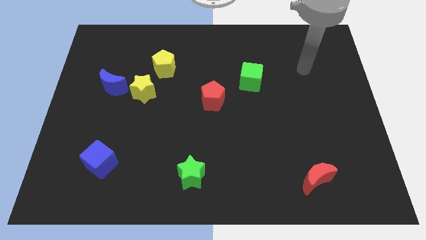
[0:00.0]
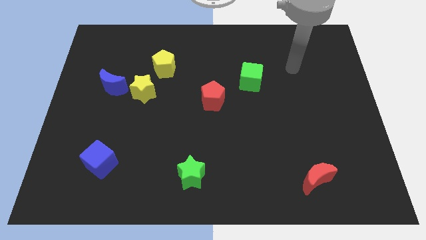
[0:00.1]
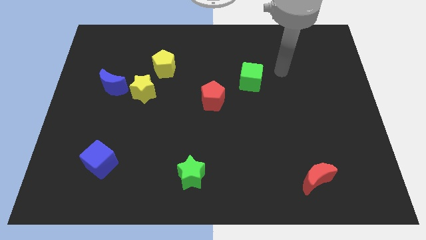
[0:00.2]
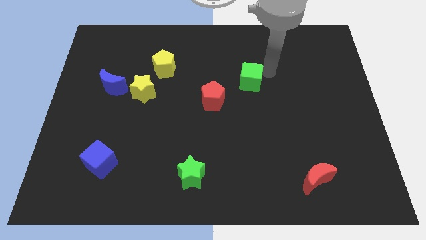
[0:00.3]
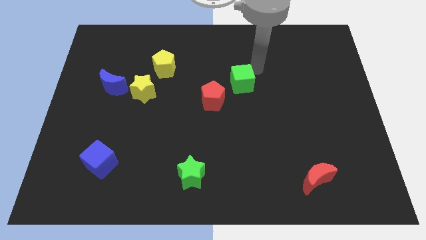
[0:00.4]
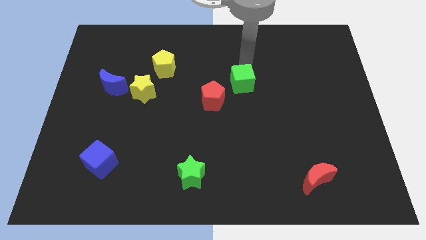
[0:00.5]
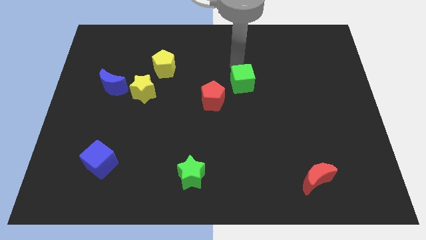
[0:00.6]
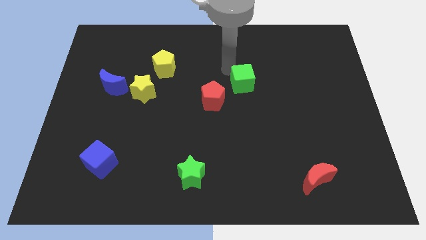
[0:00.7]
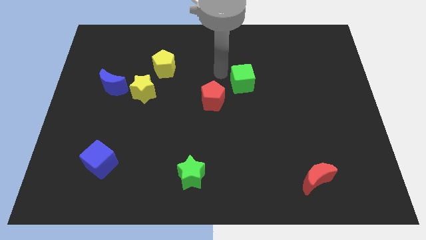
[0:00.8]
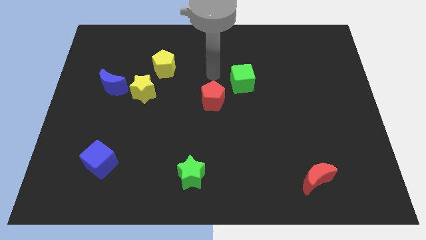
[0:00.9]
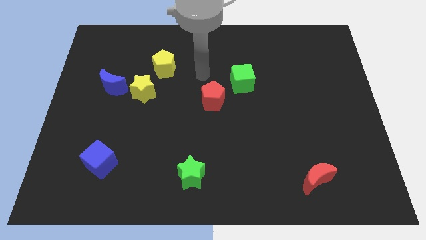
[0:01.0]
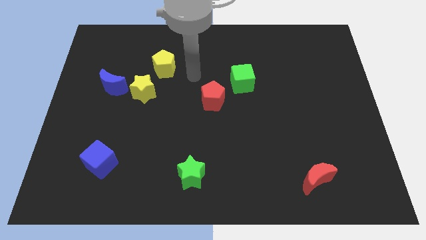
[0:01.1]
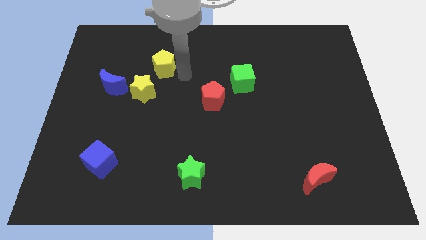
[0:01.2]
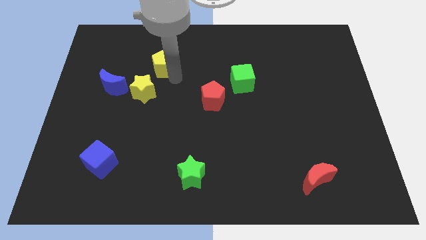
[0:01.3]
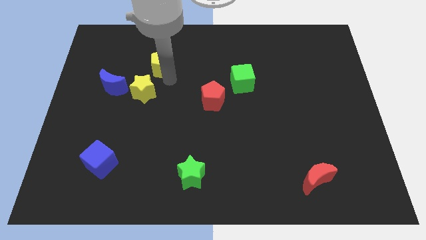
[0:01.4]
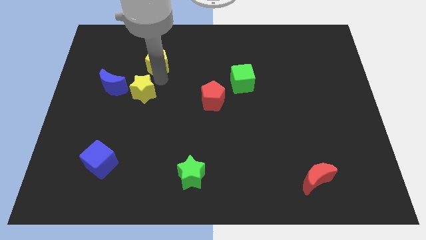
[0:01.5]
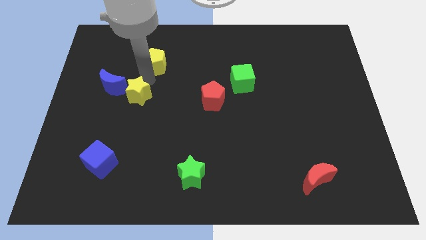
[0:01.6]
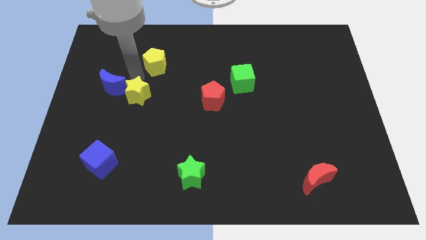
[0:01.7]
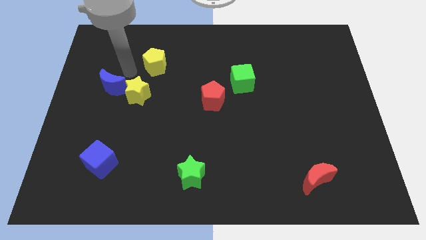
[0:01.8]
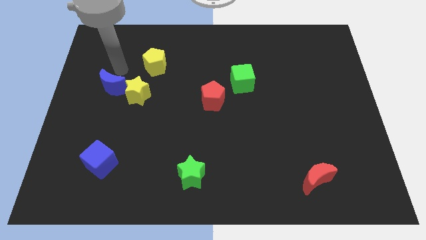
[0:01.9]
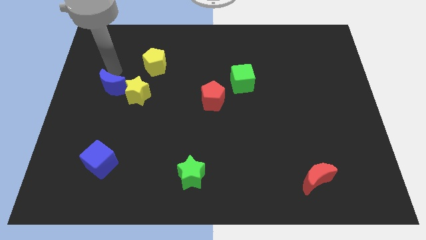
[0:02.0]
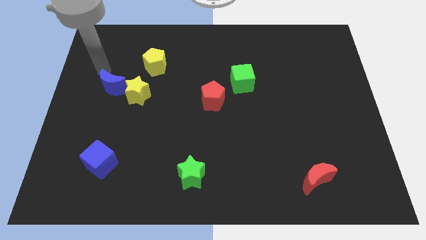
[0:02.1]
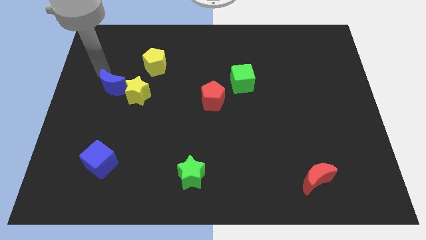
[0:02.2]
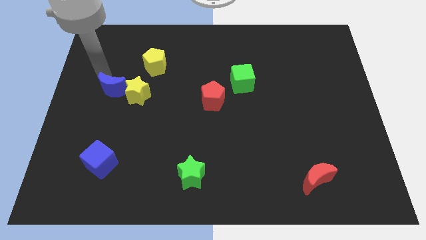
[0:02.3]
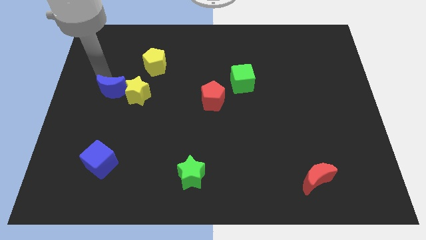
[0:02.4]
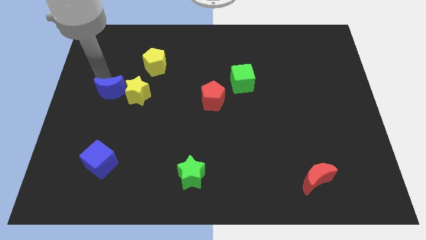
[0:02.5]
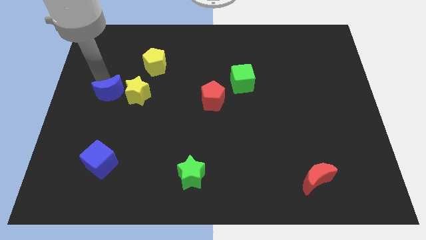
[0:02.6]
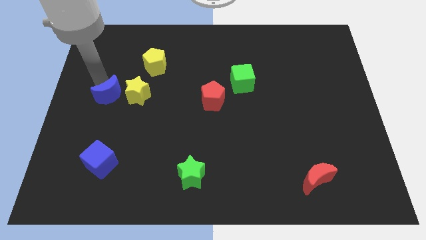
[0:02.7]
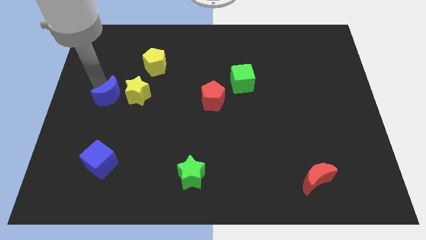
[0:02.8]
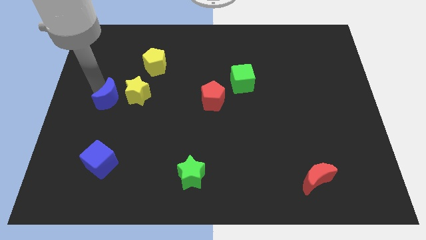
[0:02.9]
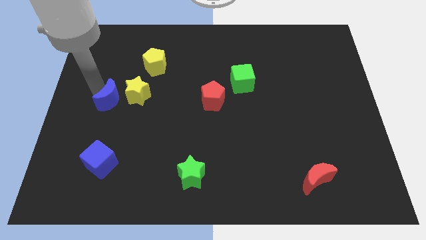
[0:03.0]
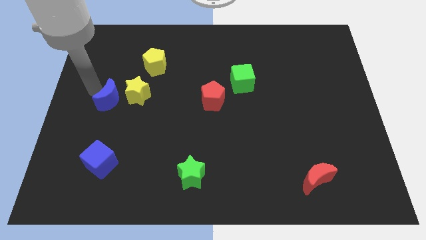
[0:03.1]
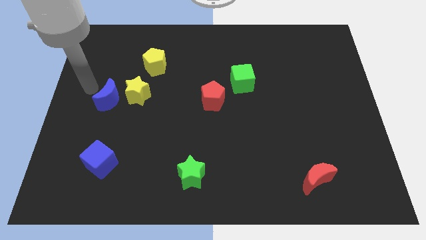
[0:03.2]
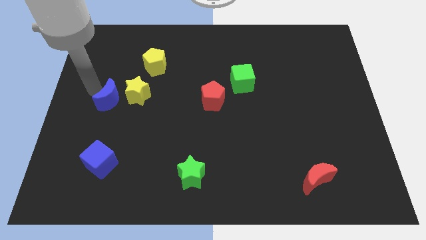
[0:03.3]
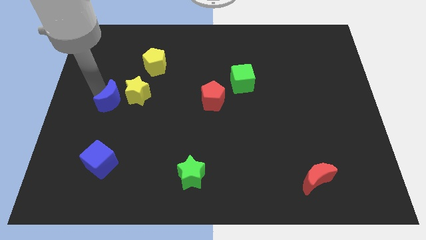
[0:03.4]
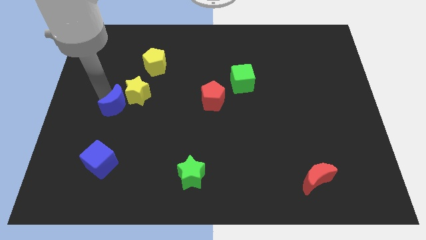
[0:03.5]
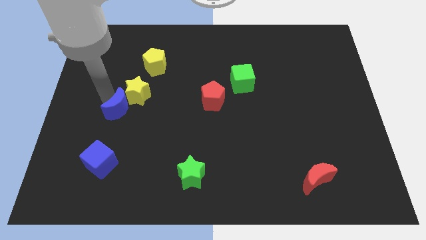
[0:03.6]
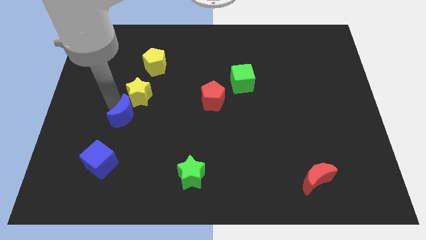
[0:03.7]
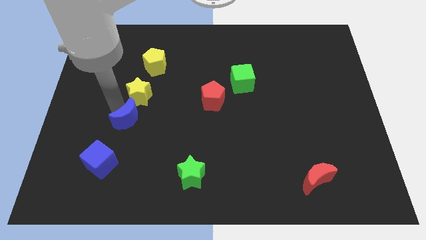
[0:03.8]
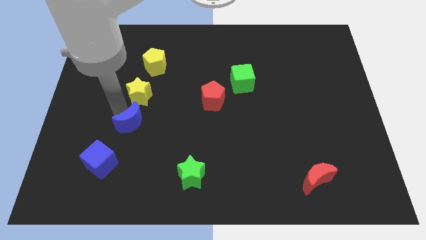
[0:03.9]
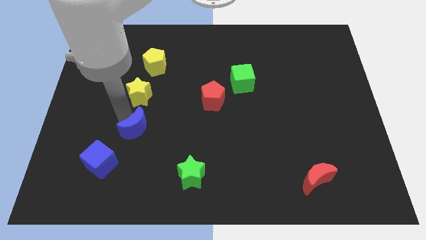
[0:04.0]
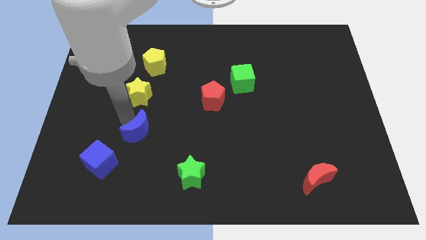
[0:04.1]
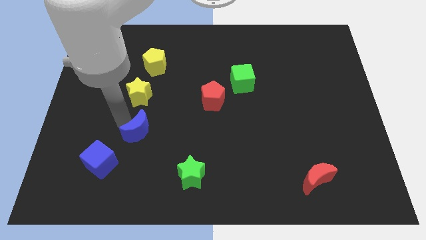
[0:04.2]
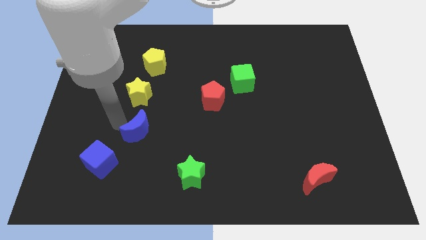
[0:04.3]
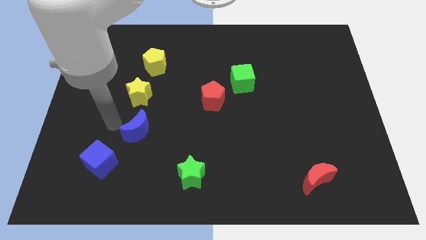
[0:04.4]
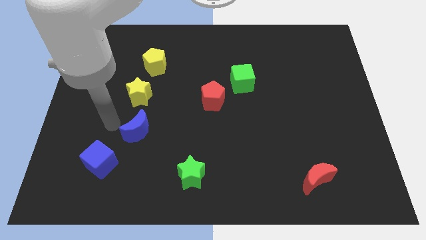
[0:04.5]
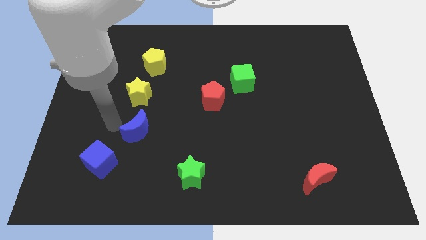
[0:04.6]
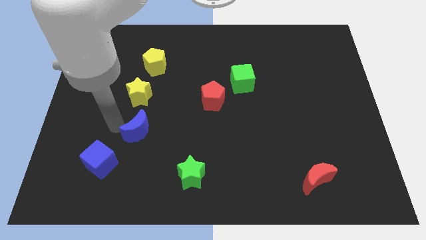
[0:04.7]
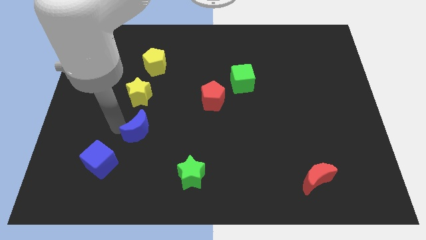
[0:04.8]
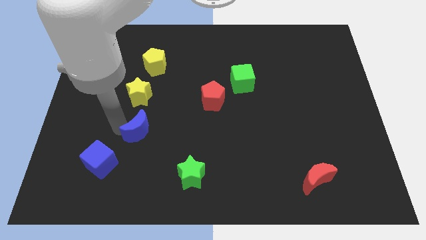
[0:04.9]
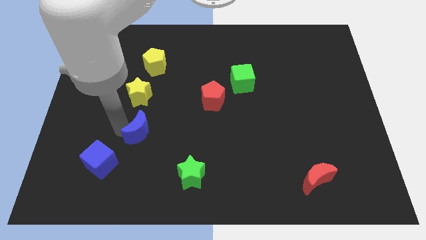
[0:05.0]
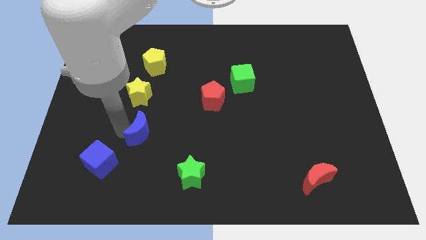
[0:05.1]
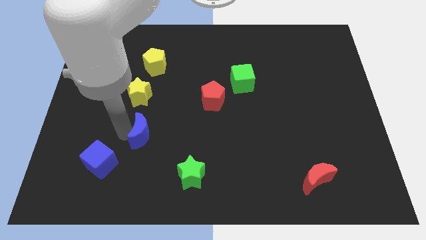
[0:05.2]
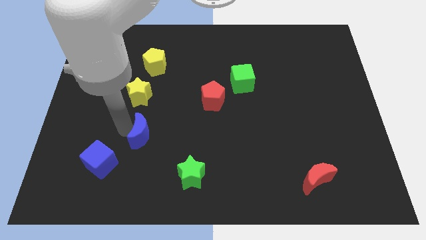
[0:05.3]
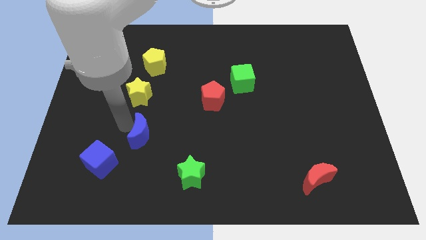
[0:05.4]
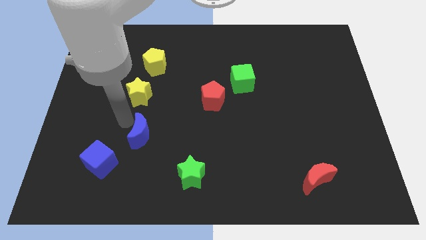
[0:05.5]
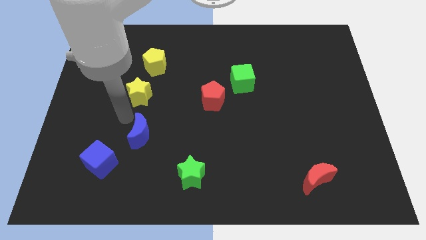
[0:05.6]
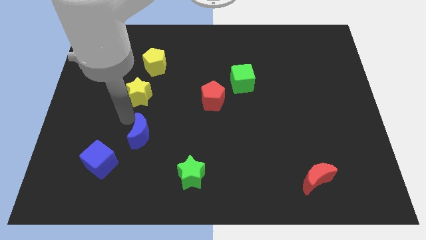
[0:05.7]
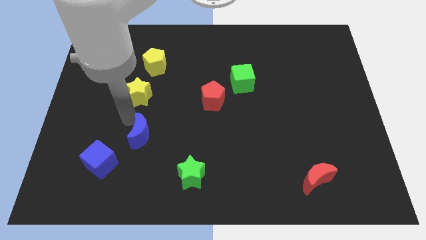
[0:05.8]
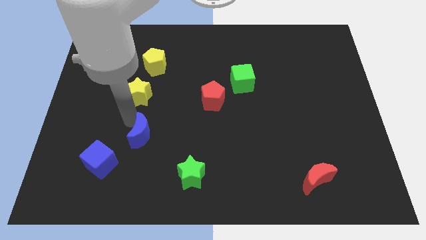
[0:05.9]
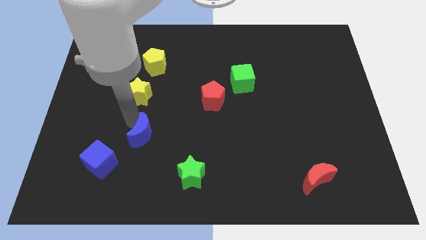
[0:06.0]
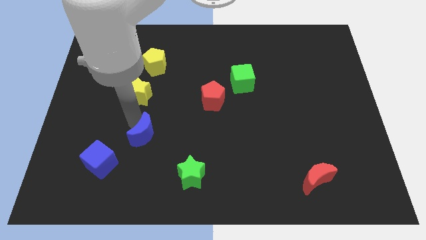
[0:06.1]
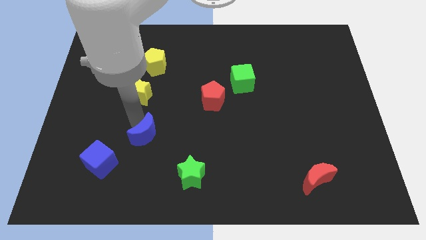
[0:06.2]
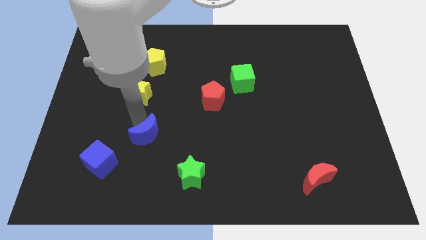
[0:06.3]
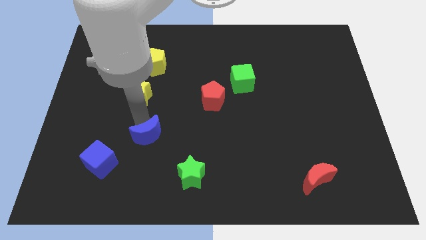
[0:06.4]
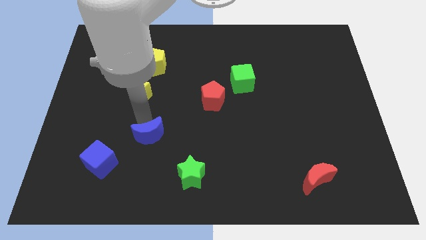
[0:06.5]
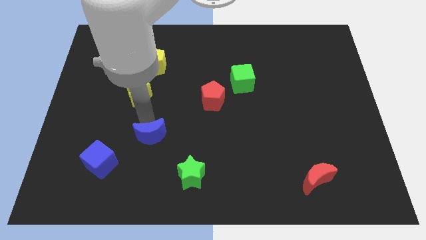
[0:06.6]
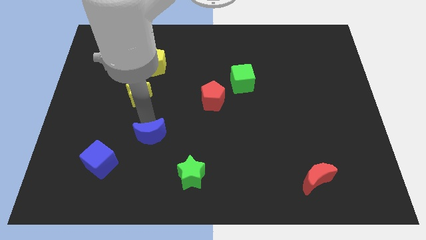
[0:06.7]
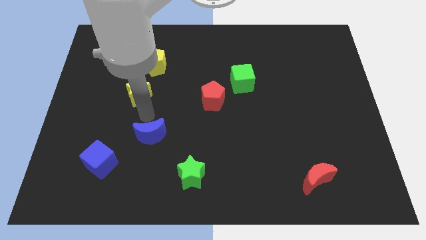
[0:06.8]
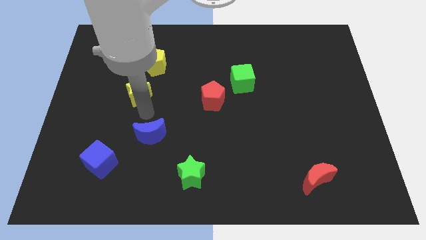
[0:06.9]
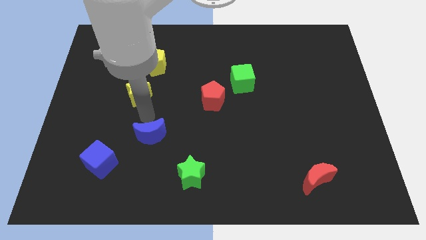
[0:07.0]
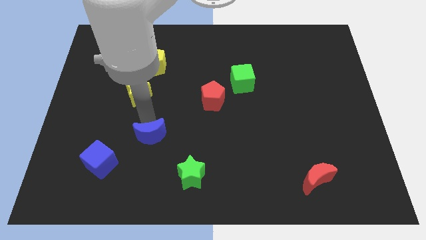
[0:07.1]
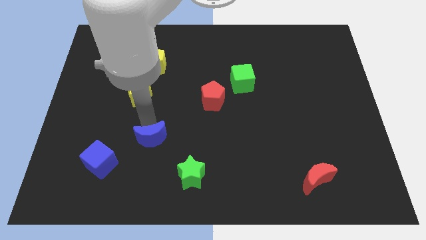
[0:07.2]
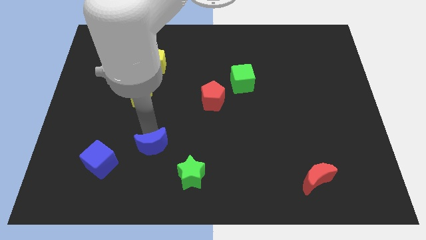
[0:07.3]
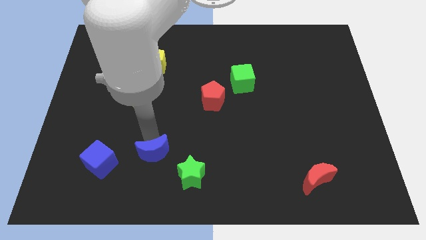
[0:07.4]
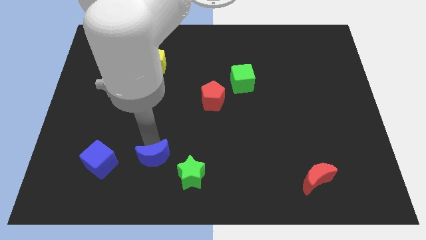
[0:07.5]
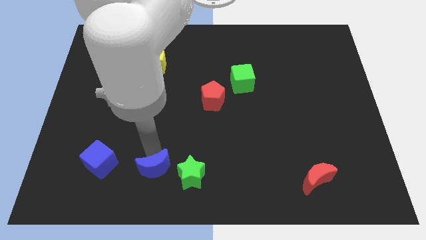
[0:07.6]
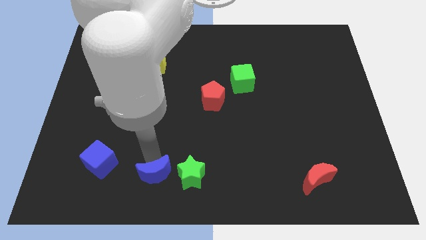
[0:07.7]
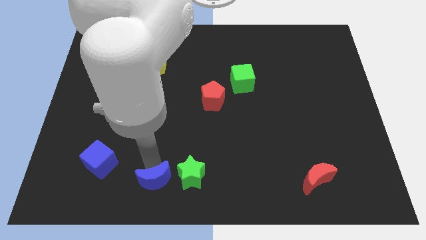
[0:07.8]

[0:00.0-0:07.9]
slide the blue moon to the bottom
